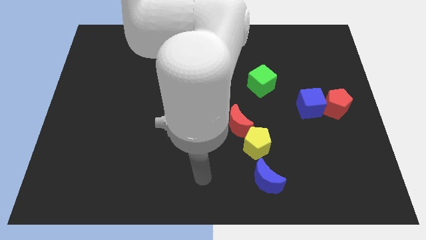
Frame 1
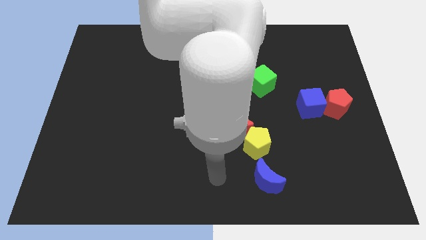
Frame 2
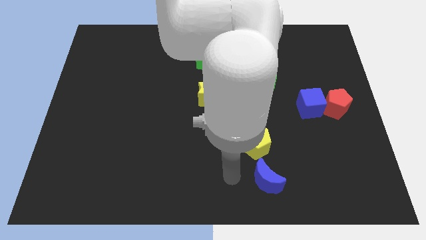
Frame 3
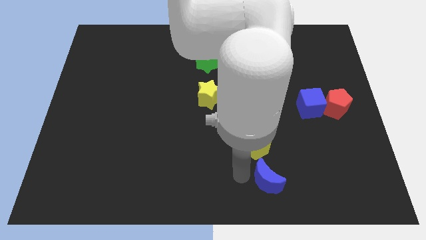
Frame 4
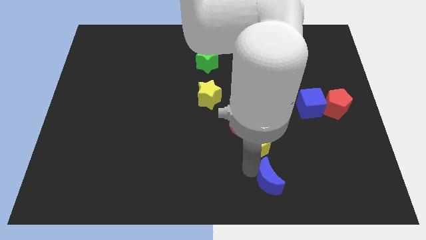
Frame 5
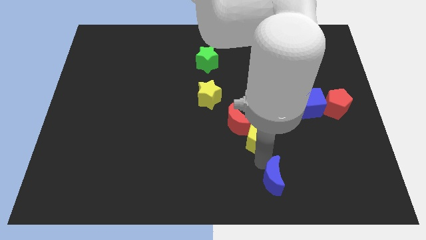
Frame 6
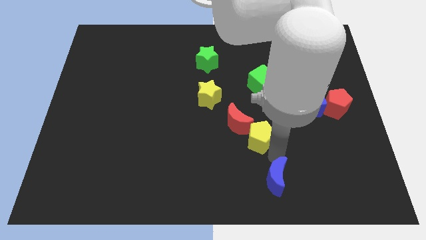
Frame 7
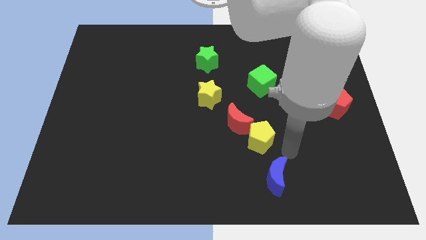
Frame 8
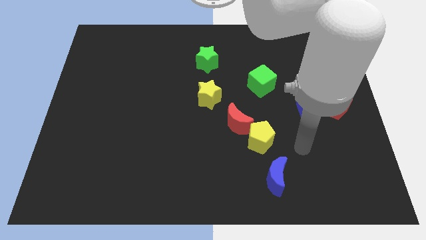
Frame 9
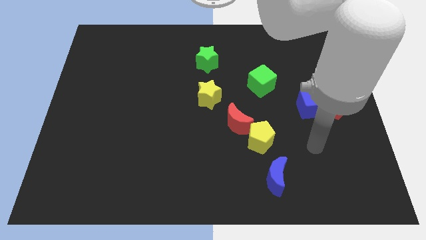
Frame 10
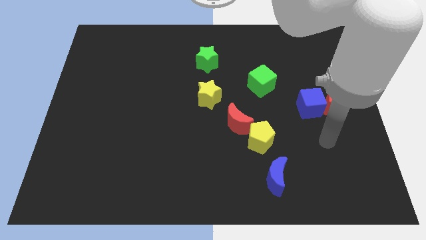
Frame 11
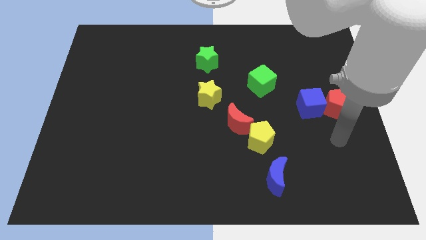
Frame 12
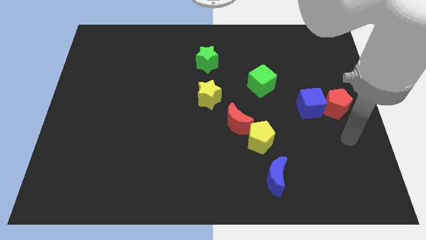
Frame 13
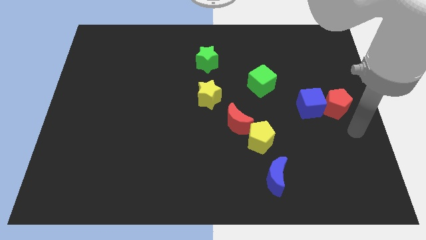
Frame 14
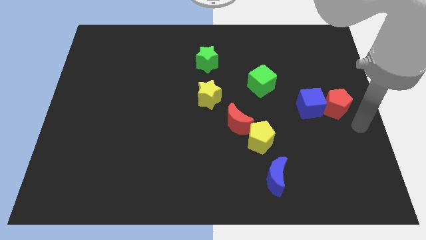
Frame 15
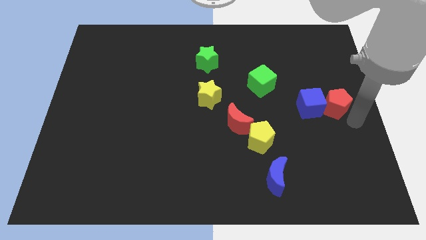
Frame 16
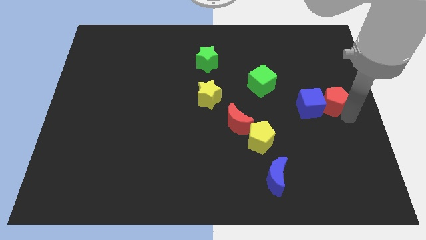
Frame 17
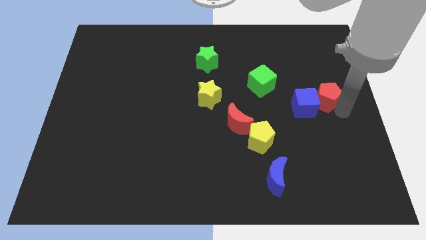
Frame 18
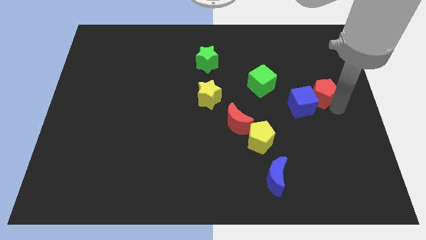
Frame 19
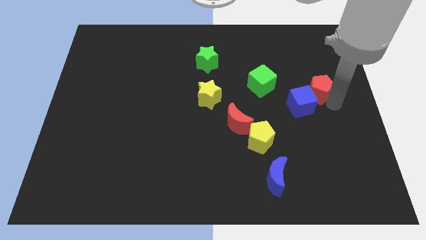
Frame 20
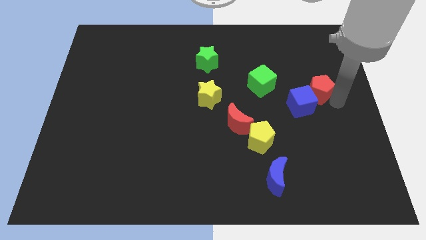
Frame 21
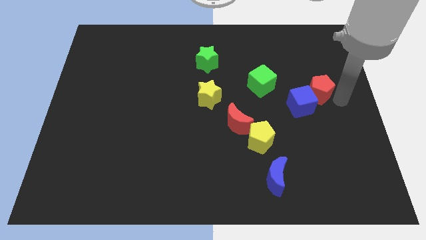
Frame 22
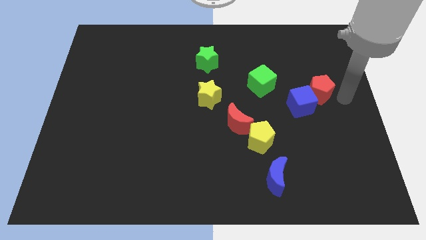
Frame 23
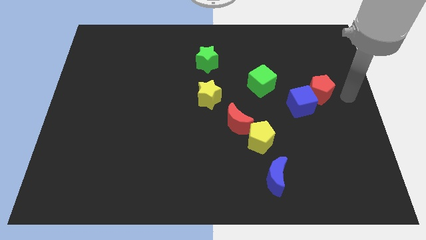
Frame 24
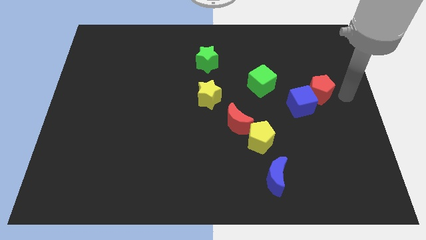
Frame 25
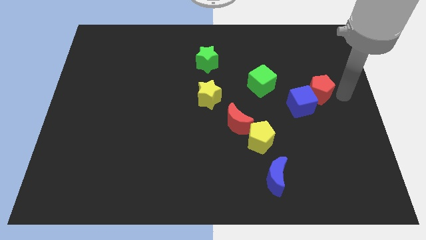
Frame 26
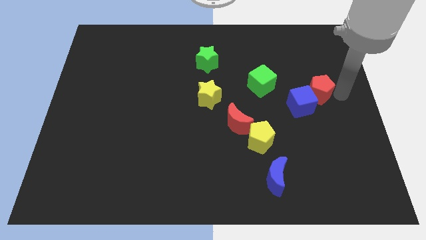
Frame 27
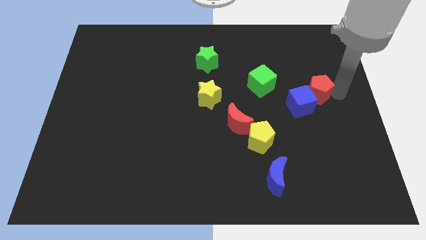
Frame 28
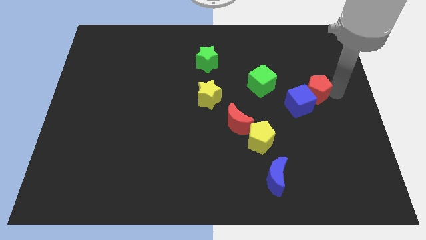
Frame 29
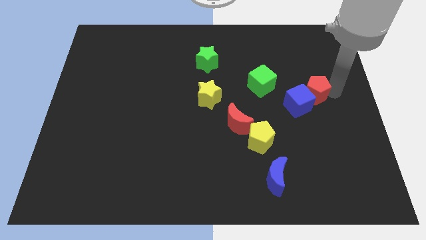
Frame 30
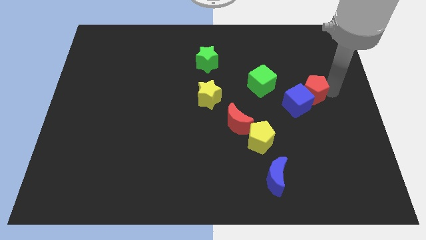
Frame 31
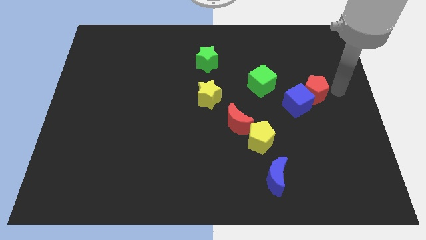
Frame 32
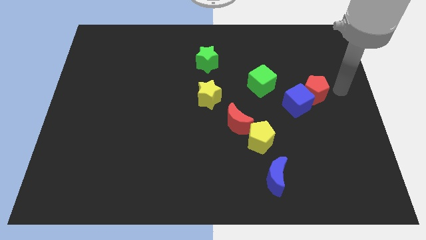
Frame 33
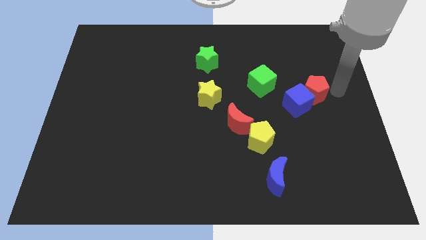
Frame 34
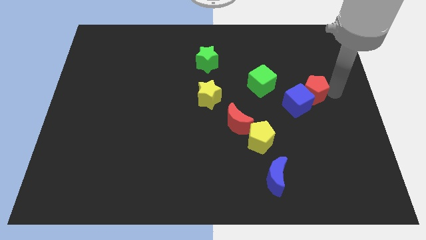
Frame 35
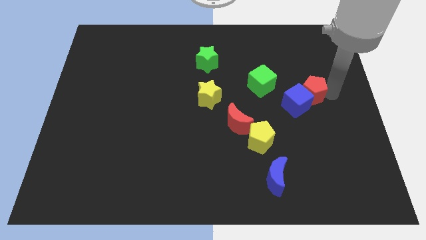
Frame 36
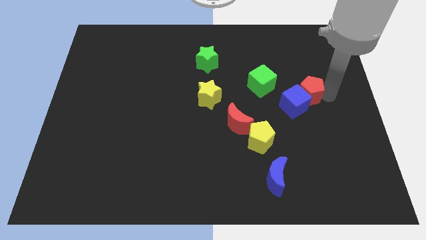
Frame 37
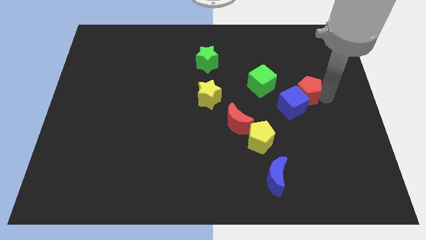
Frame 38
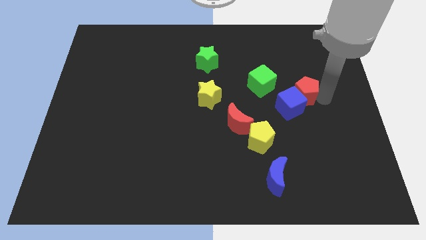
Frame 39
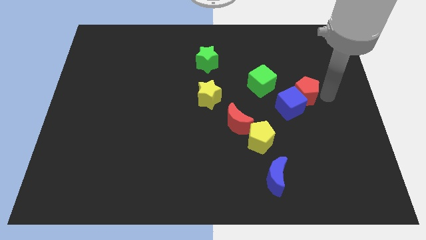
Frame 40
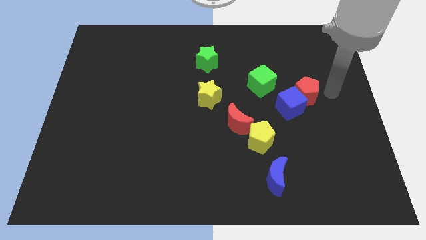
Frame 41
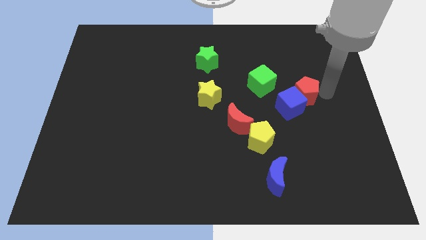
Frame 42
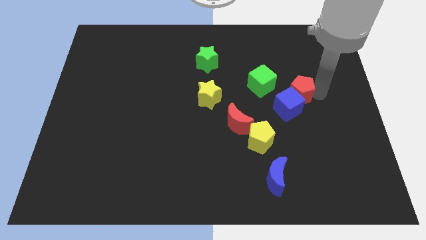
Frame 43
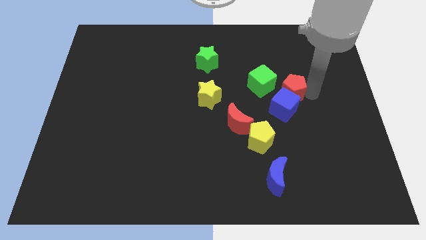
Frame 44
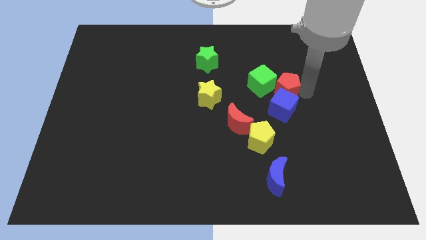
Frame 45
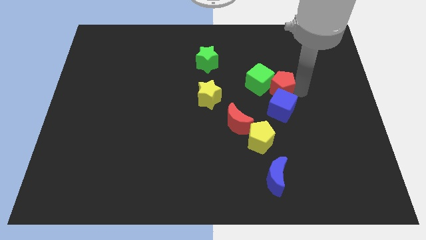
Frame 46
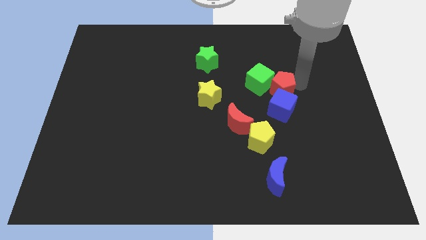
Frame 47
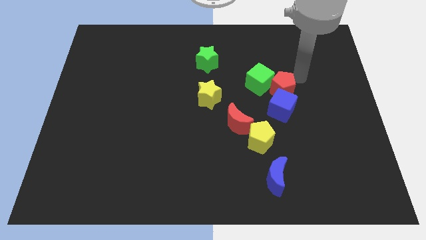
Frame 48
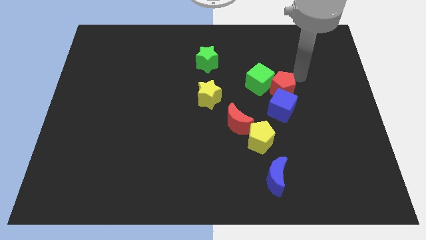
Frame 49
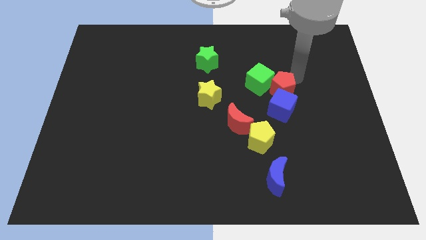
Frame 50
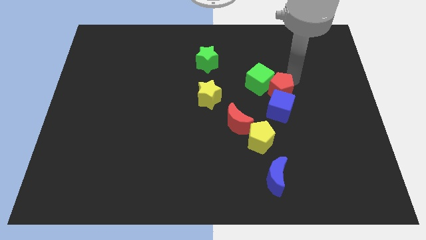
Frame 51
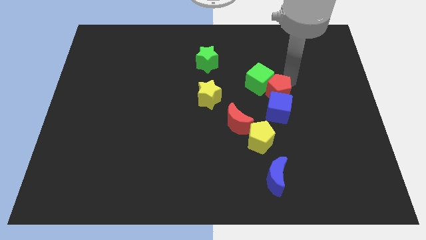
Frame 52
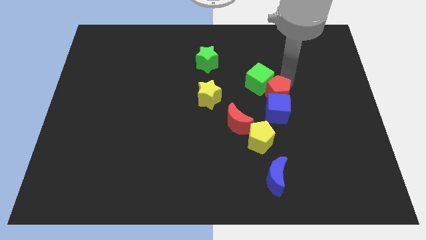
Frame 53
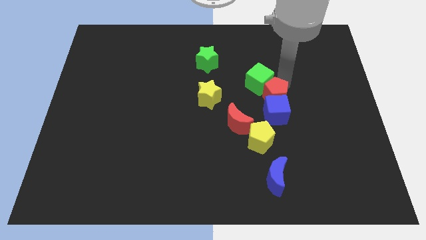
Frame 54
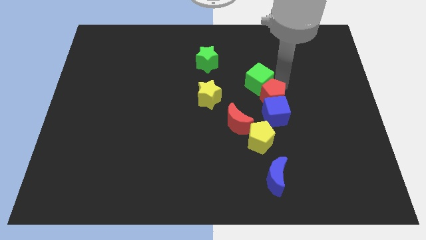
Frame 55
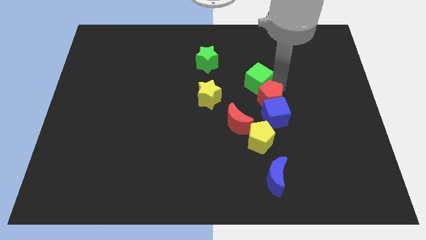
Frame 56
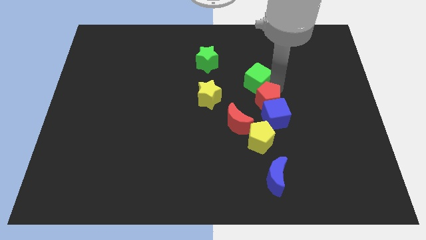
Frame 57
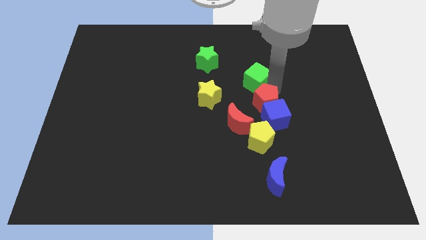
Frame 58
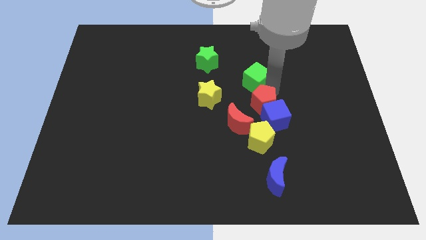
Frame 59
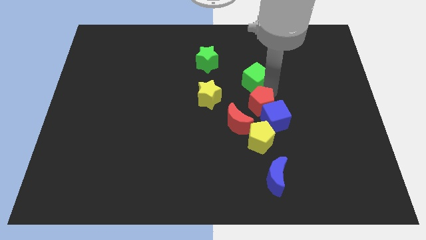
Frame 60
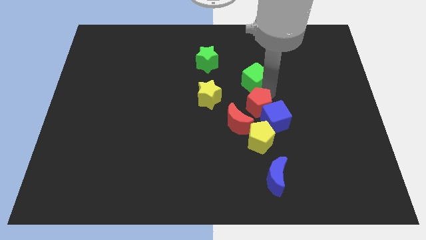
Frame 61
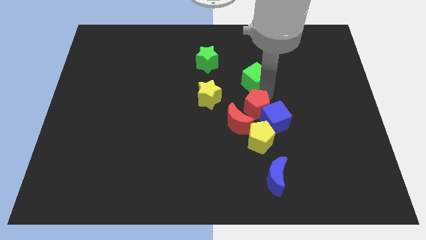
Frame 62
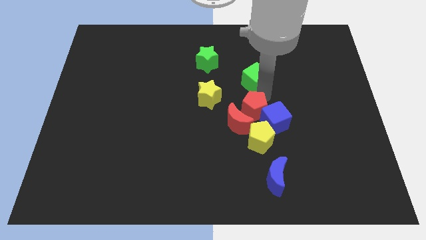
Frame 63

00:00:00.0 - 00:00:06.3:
slide the red pentagon to the red moon
